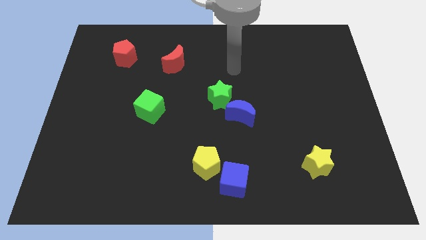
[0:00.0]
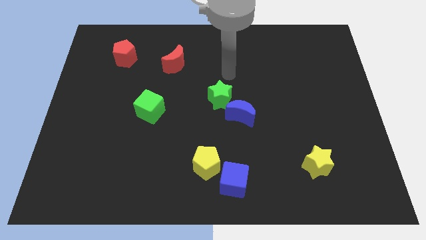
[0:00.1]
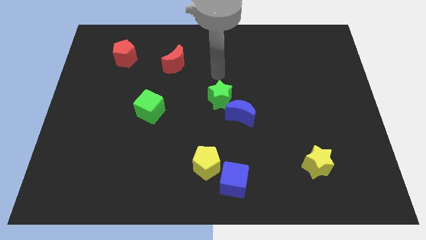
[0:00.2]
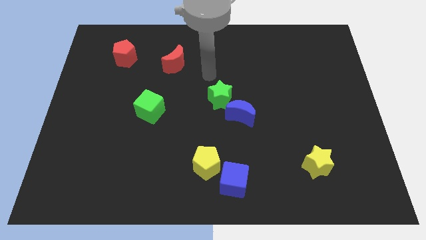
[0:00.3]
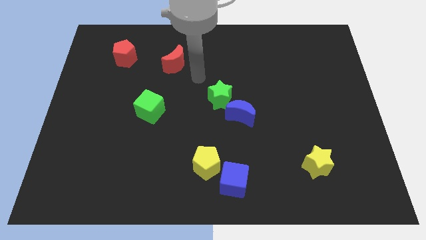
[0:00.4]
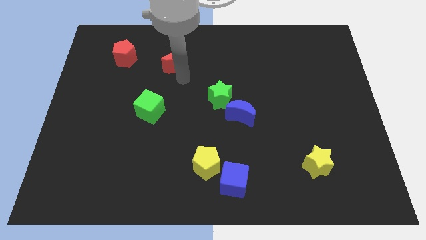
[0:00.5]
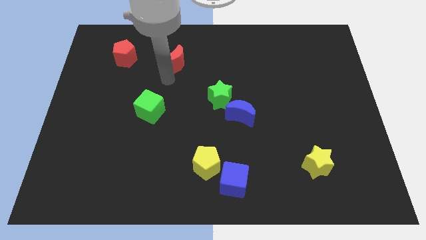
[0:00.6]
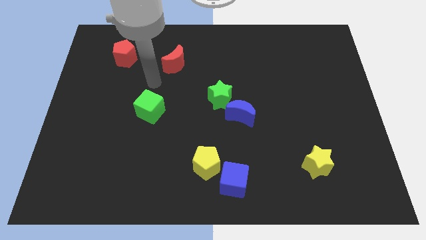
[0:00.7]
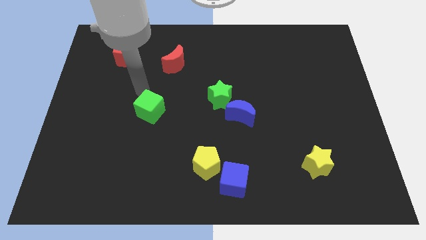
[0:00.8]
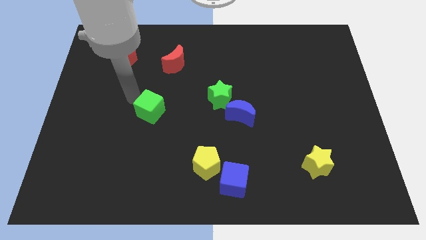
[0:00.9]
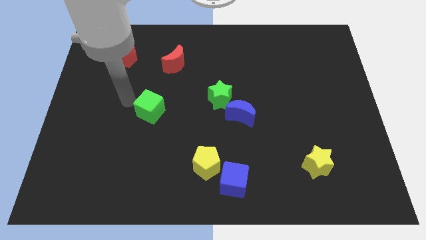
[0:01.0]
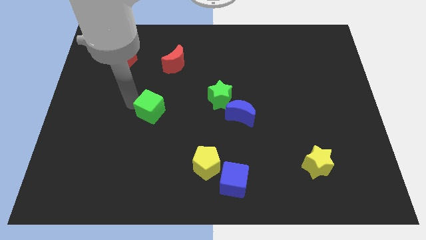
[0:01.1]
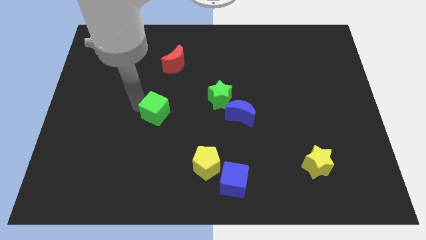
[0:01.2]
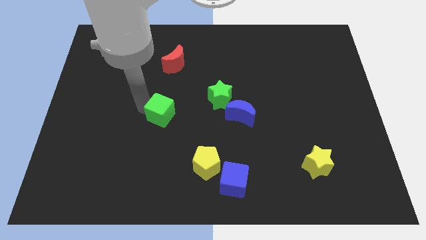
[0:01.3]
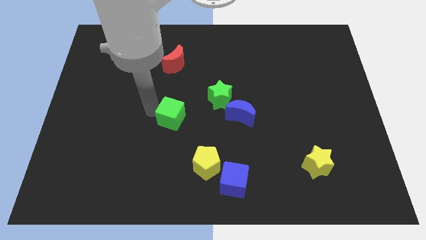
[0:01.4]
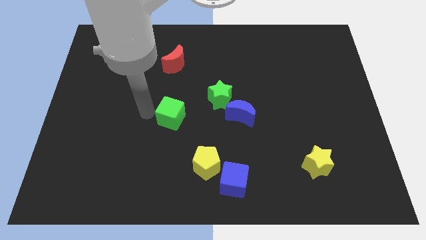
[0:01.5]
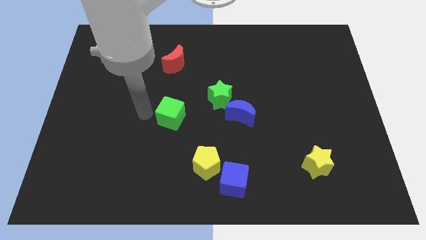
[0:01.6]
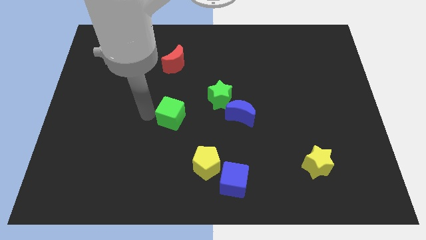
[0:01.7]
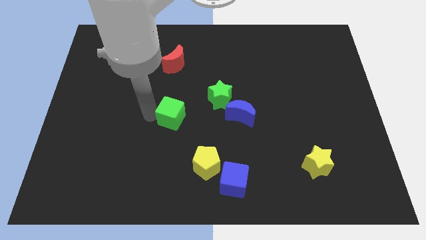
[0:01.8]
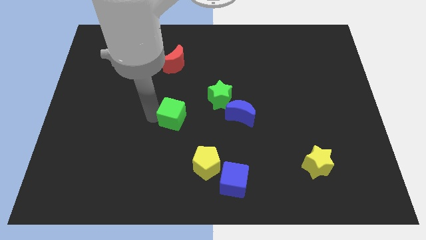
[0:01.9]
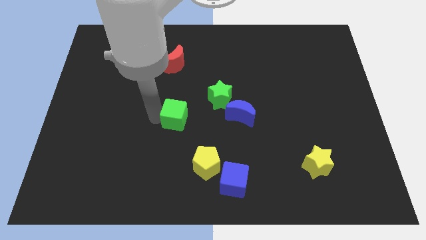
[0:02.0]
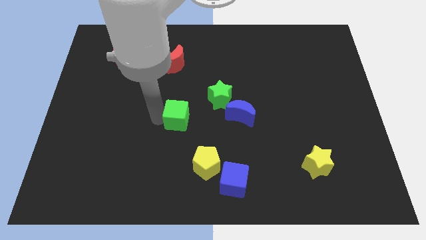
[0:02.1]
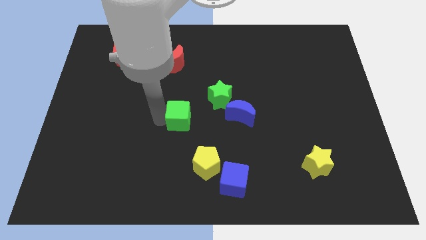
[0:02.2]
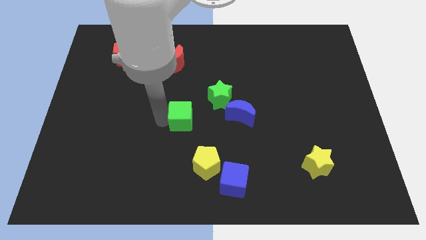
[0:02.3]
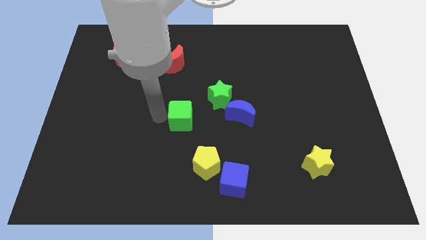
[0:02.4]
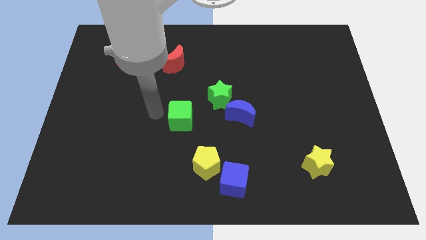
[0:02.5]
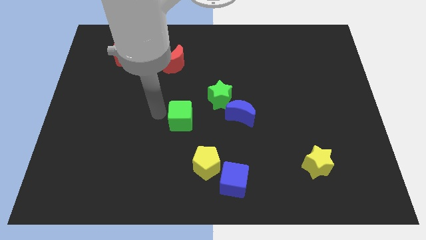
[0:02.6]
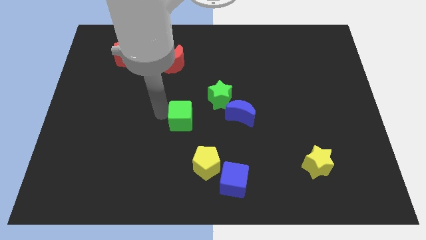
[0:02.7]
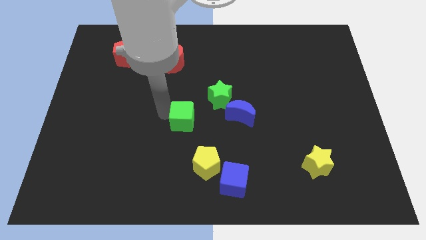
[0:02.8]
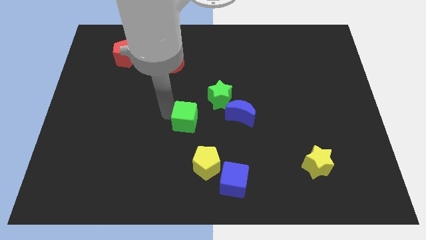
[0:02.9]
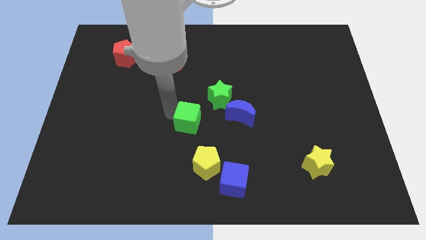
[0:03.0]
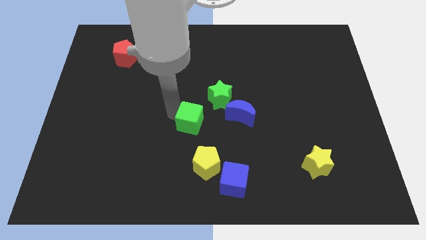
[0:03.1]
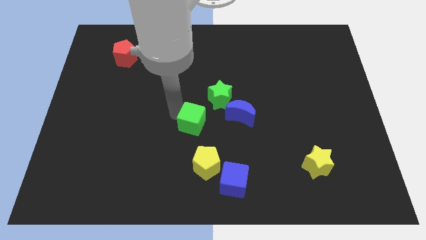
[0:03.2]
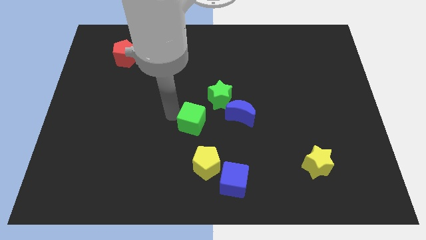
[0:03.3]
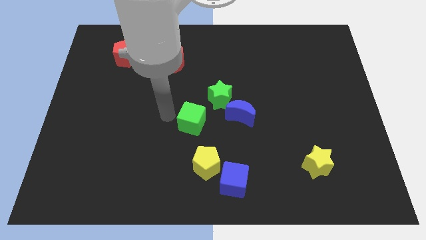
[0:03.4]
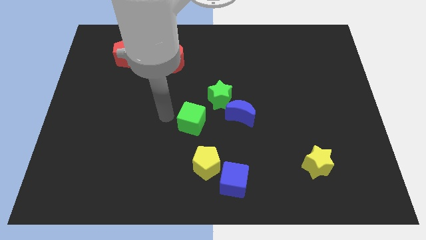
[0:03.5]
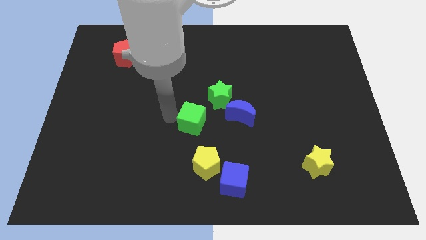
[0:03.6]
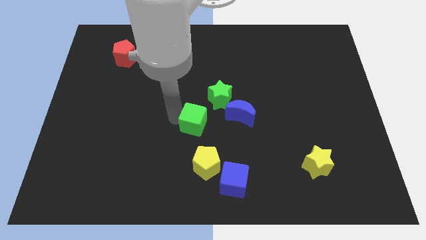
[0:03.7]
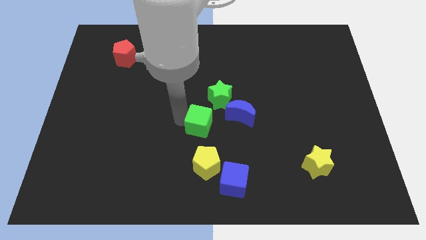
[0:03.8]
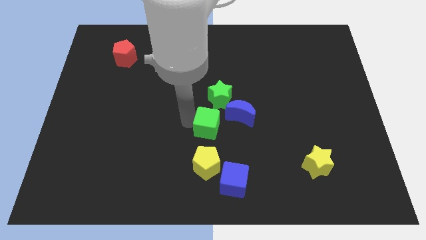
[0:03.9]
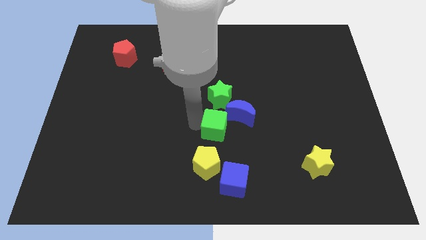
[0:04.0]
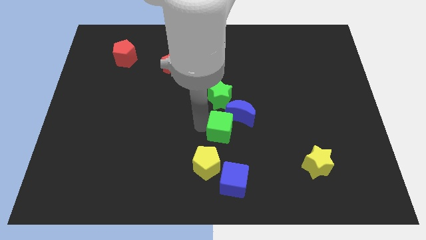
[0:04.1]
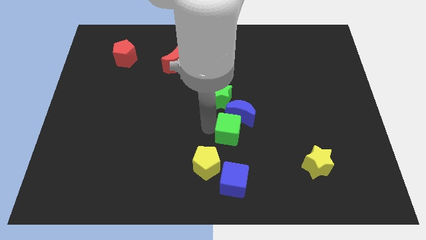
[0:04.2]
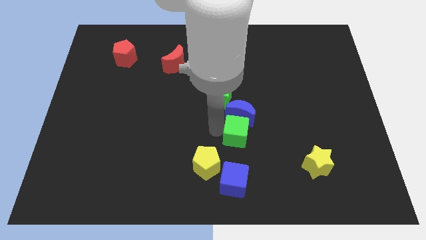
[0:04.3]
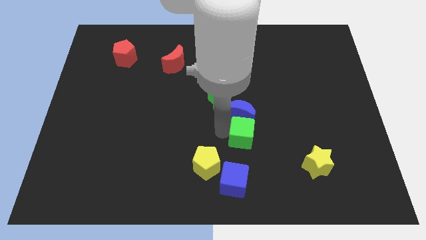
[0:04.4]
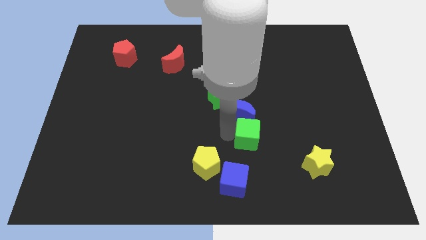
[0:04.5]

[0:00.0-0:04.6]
slide the green cube to the right

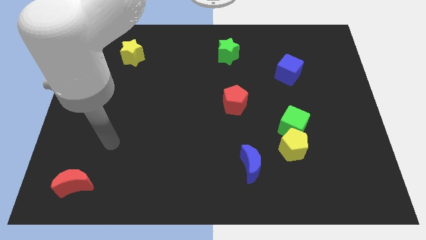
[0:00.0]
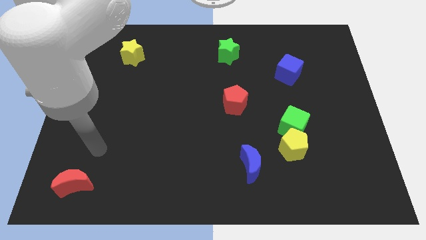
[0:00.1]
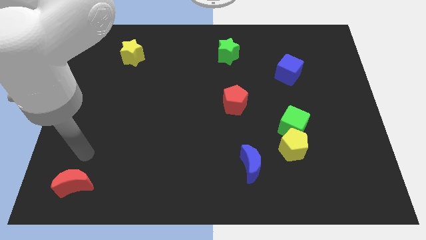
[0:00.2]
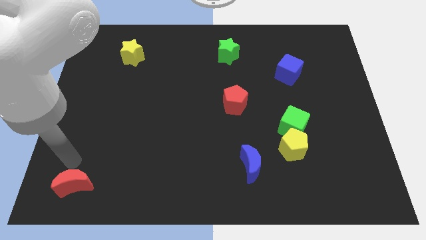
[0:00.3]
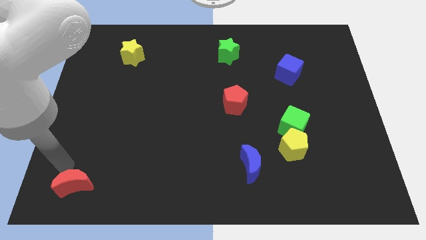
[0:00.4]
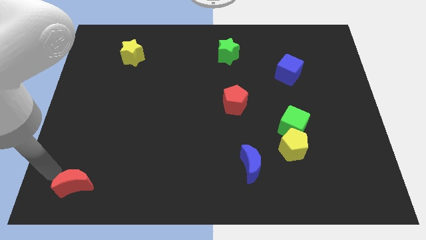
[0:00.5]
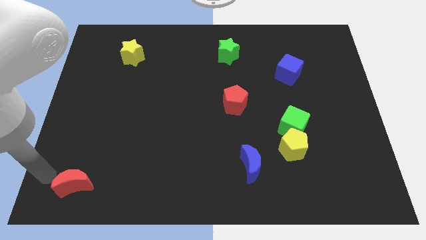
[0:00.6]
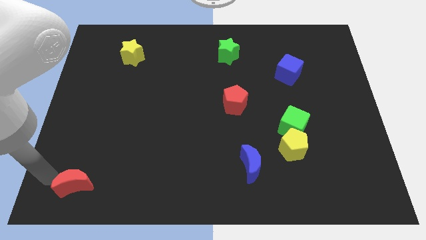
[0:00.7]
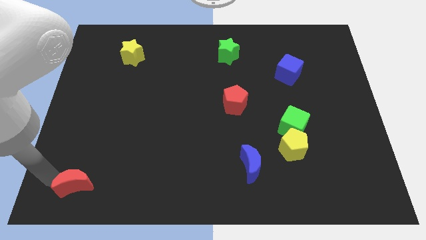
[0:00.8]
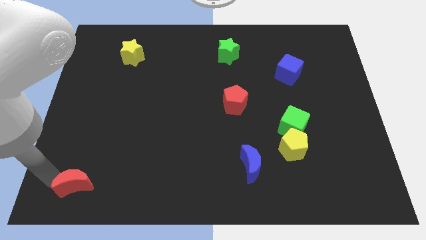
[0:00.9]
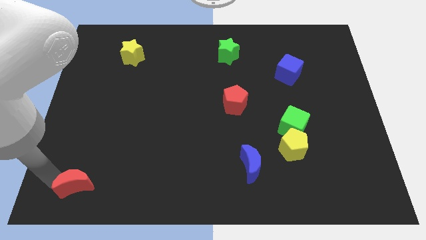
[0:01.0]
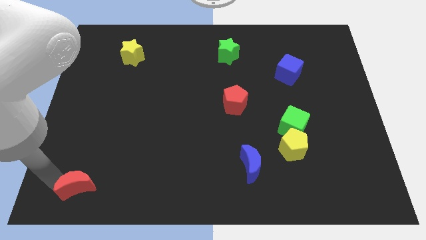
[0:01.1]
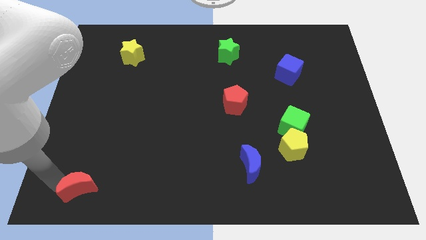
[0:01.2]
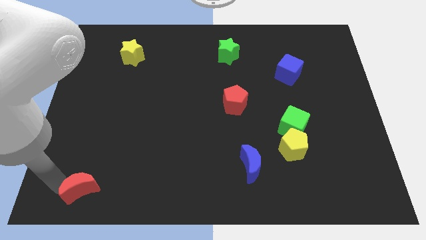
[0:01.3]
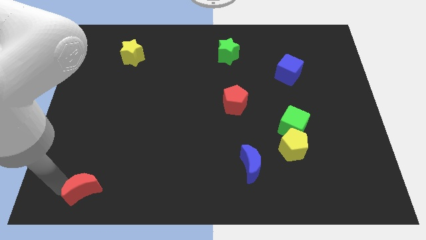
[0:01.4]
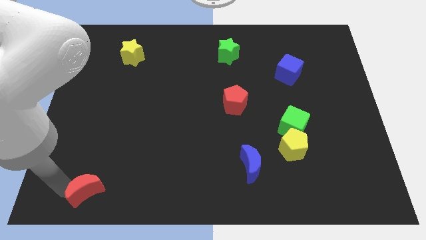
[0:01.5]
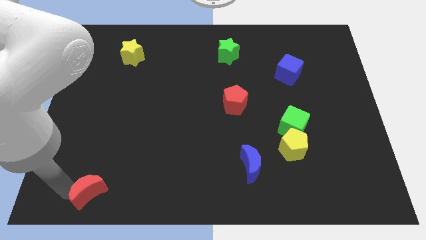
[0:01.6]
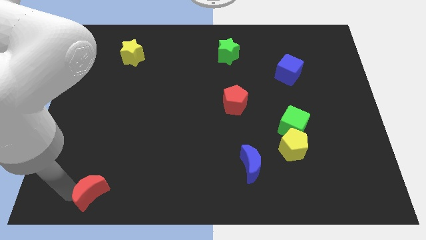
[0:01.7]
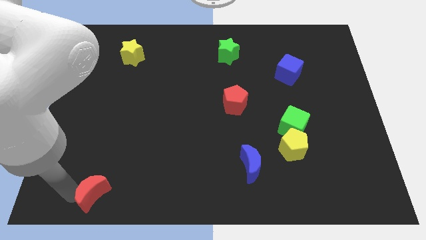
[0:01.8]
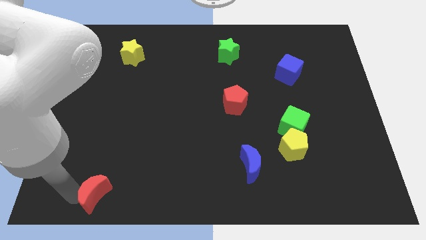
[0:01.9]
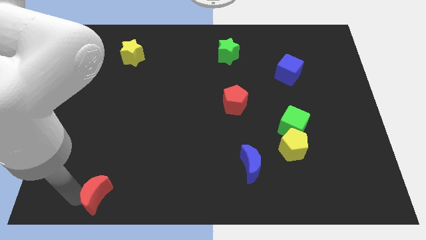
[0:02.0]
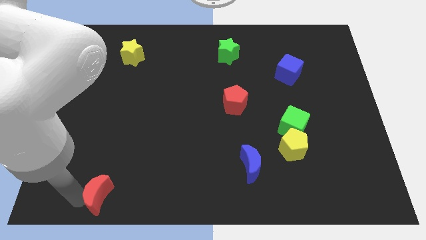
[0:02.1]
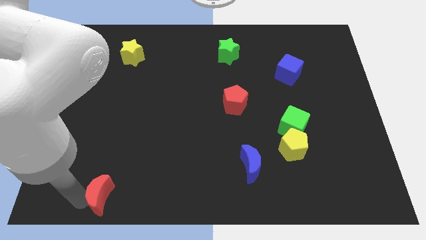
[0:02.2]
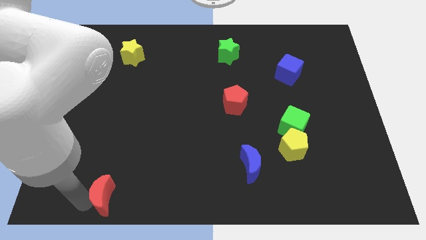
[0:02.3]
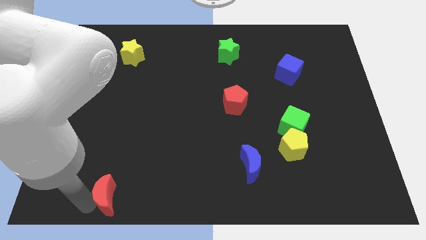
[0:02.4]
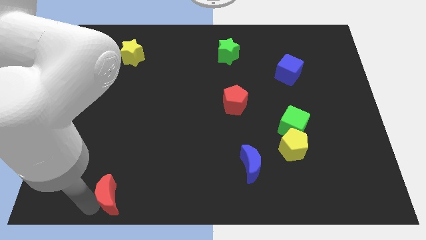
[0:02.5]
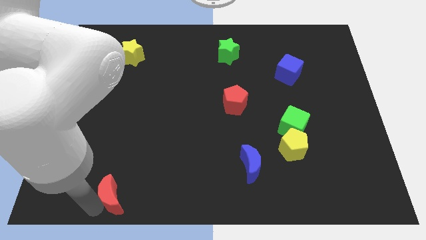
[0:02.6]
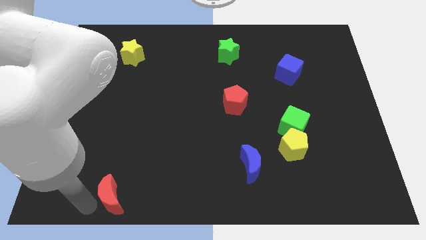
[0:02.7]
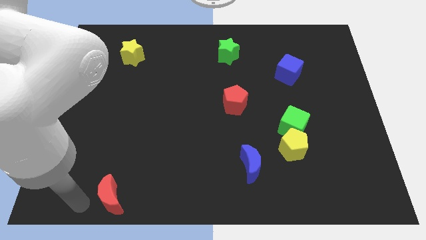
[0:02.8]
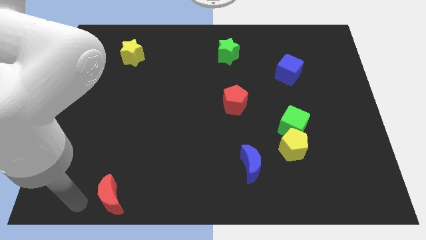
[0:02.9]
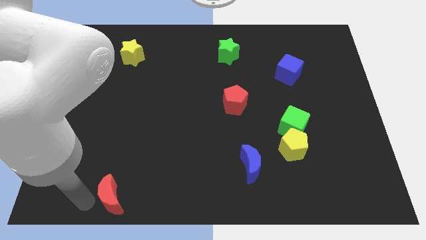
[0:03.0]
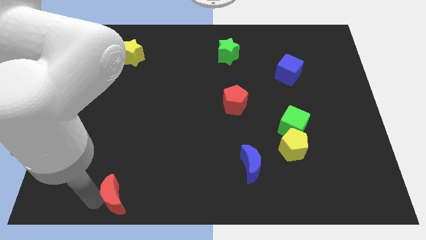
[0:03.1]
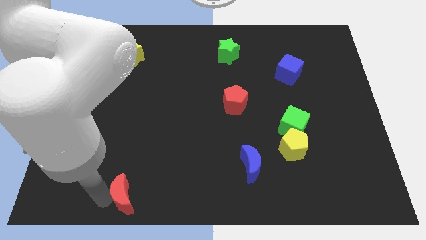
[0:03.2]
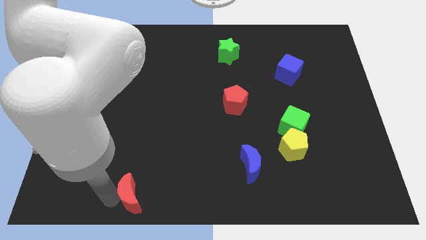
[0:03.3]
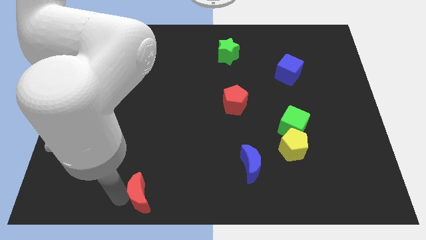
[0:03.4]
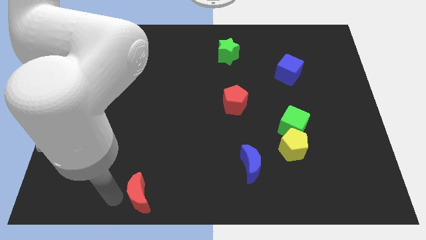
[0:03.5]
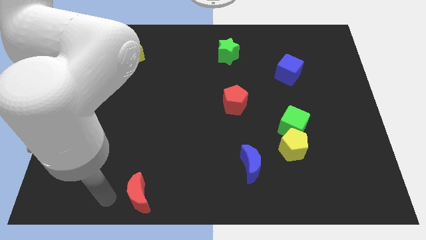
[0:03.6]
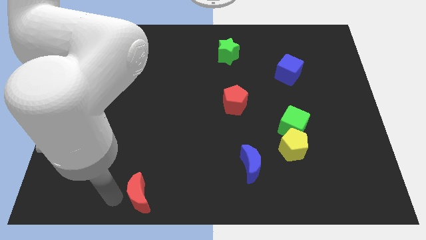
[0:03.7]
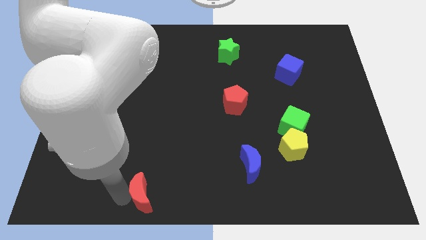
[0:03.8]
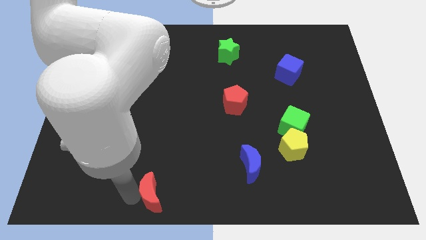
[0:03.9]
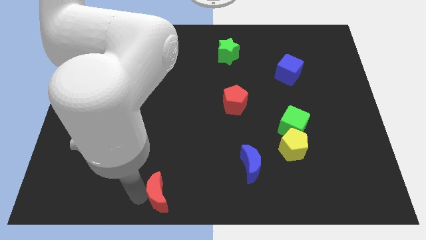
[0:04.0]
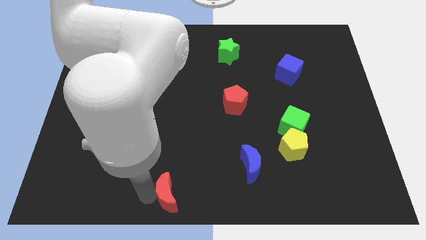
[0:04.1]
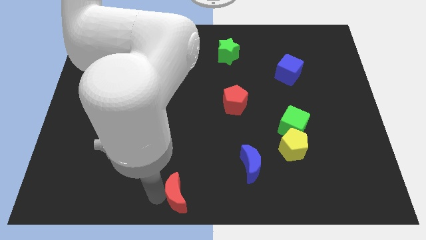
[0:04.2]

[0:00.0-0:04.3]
slide the red moon right
